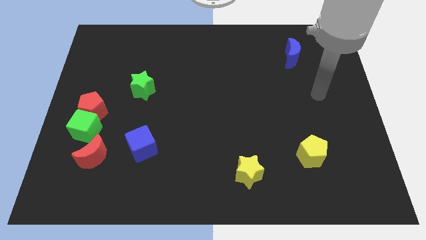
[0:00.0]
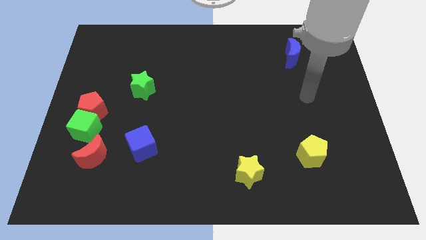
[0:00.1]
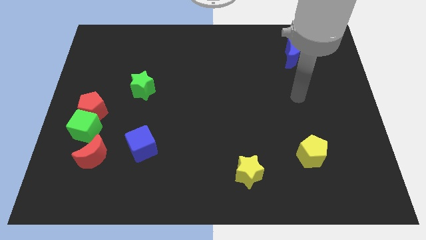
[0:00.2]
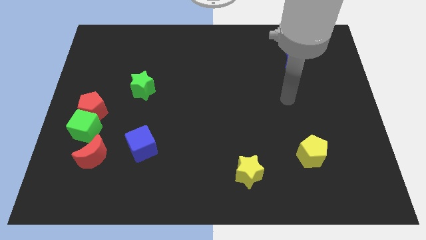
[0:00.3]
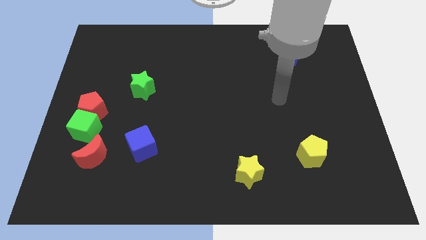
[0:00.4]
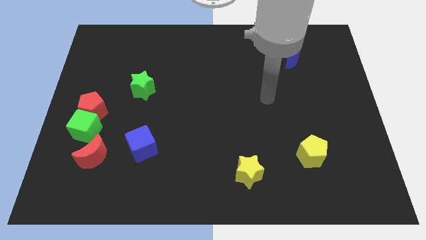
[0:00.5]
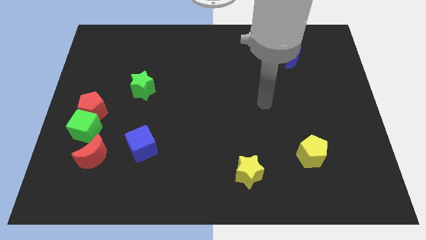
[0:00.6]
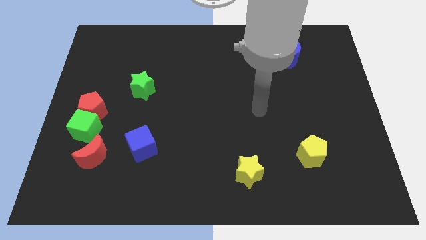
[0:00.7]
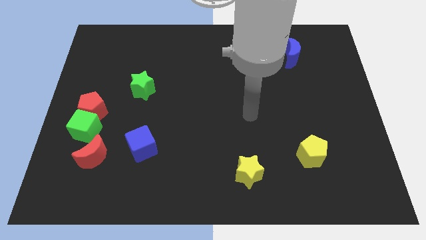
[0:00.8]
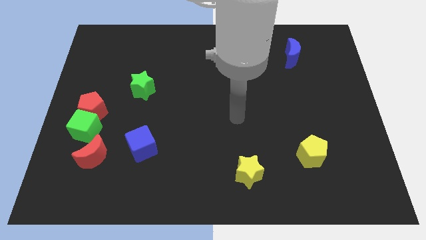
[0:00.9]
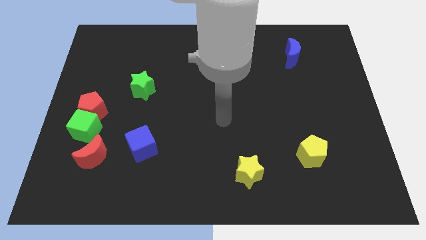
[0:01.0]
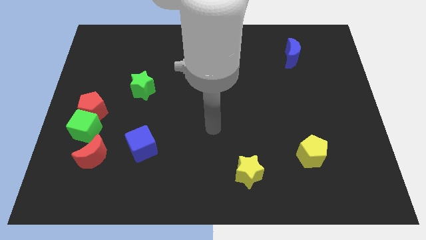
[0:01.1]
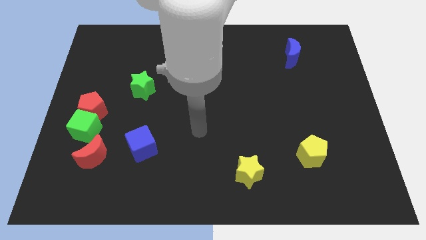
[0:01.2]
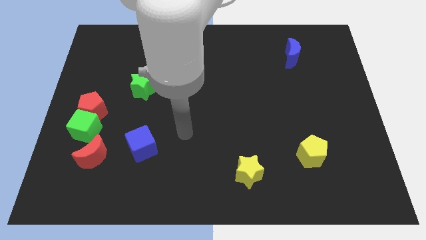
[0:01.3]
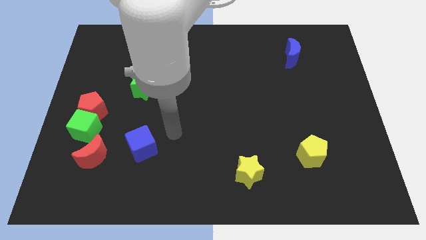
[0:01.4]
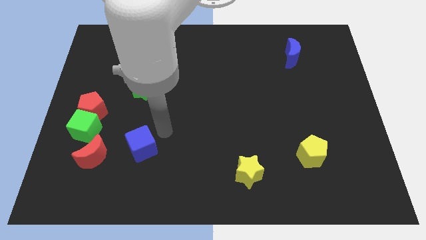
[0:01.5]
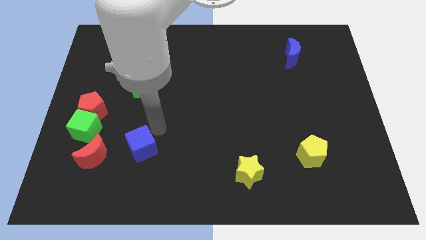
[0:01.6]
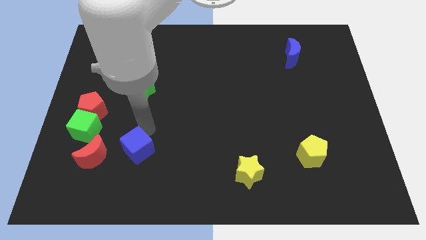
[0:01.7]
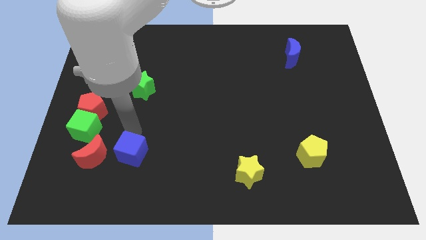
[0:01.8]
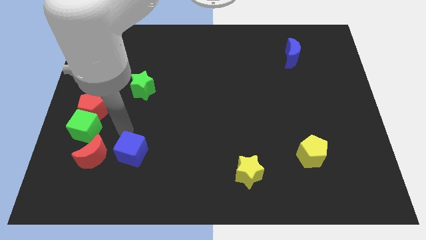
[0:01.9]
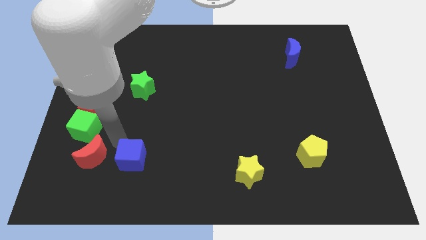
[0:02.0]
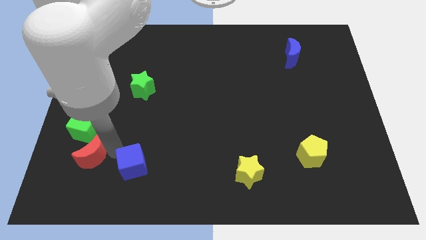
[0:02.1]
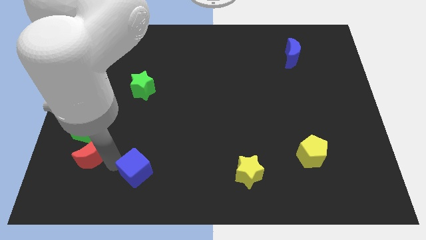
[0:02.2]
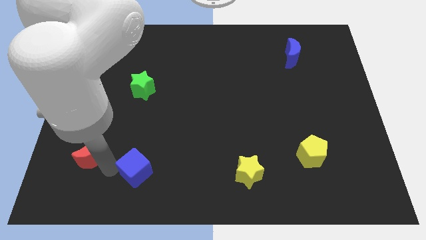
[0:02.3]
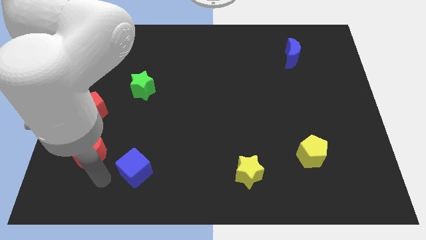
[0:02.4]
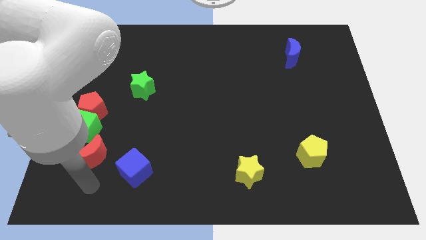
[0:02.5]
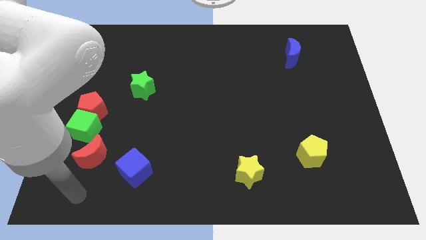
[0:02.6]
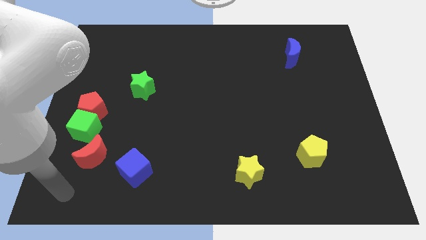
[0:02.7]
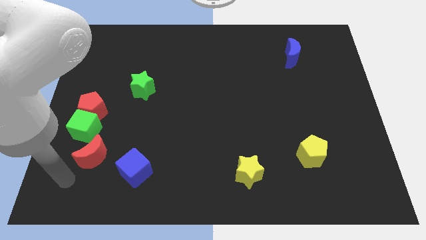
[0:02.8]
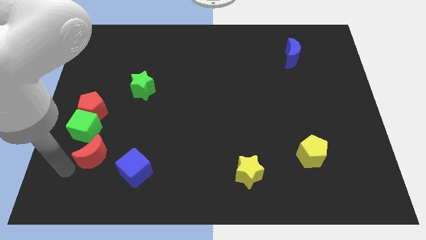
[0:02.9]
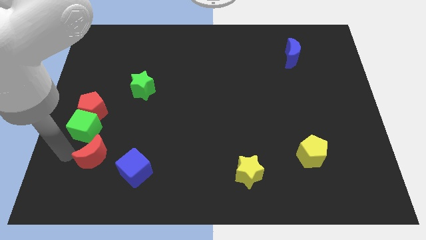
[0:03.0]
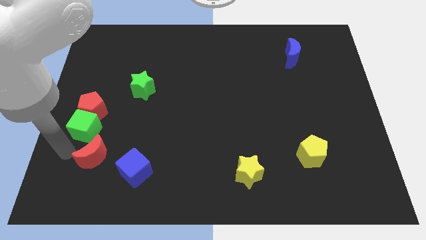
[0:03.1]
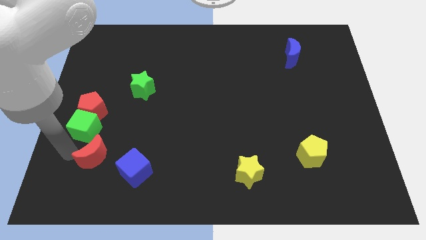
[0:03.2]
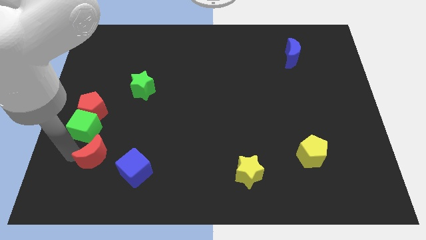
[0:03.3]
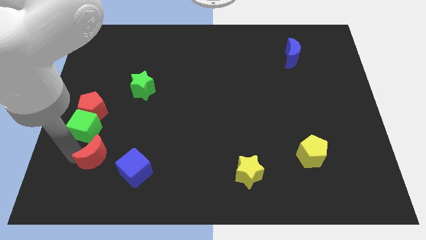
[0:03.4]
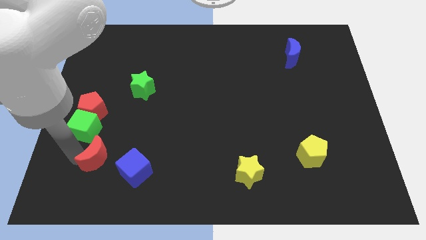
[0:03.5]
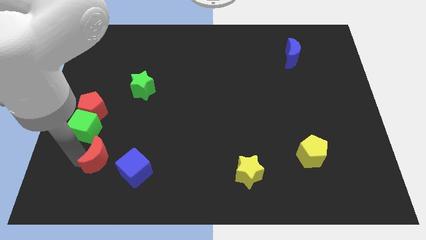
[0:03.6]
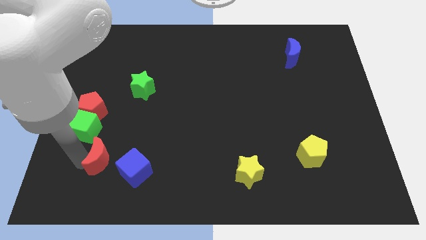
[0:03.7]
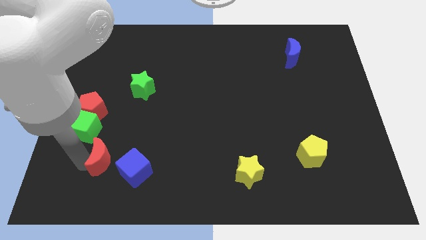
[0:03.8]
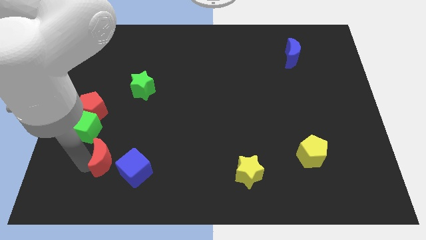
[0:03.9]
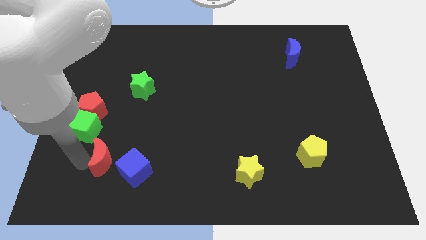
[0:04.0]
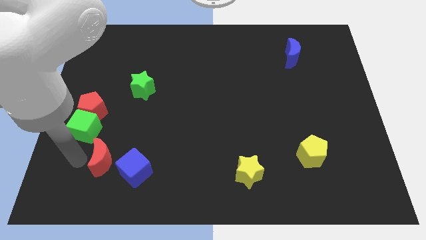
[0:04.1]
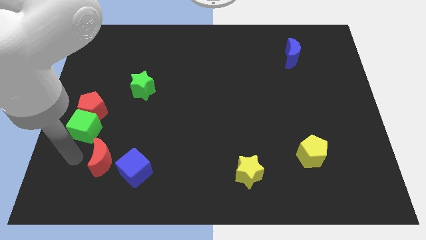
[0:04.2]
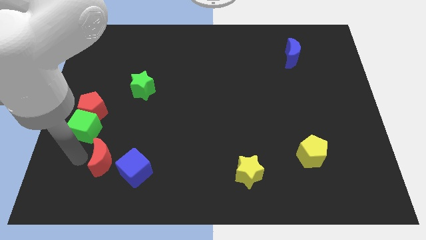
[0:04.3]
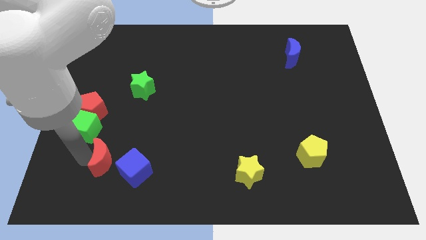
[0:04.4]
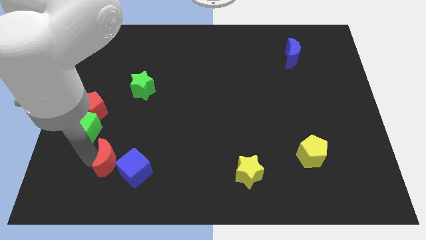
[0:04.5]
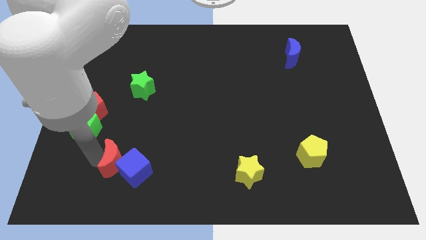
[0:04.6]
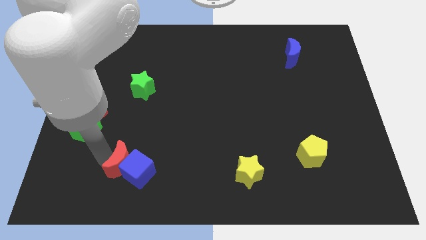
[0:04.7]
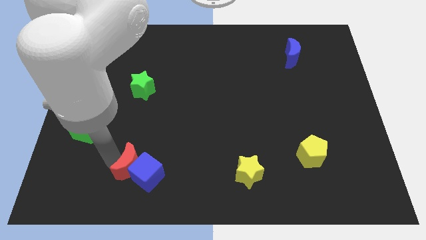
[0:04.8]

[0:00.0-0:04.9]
push the red moon somewhat to the right

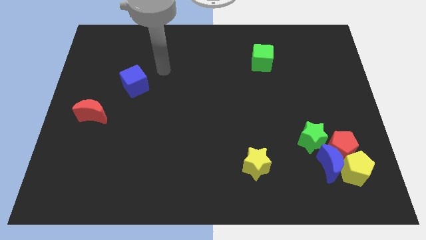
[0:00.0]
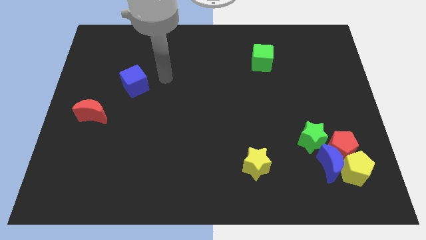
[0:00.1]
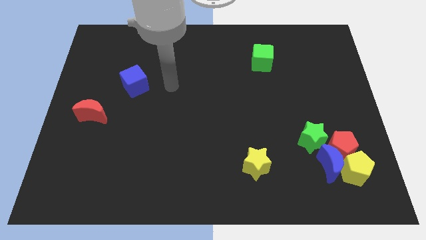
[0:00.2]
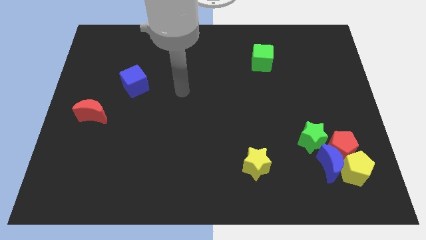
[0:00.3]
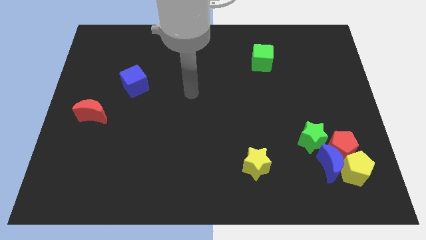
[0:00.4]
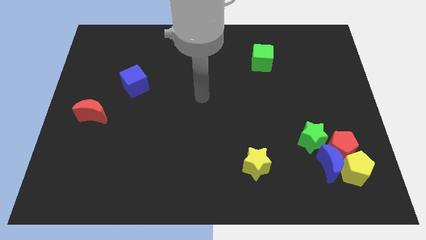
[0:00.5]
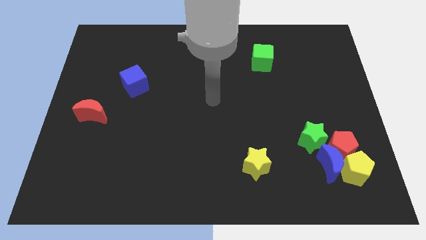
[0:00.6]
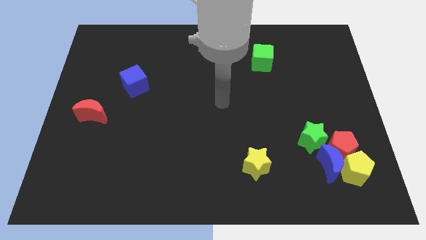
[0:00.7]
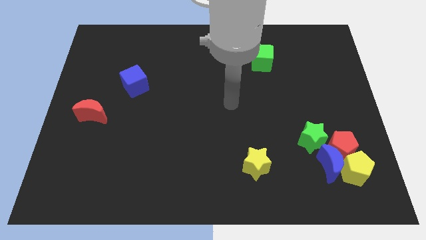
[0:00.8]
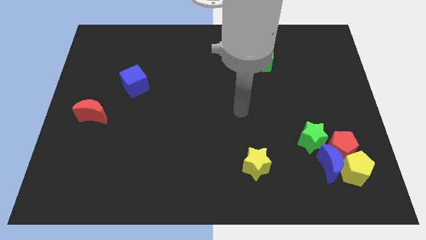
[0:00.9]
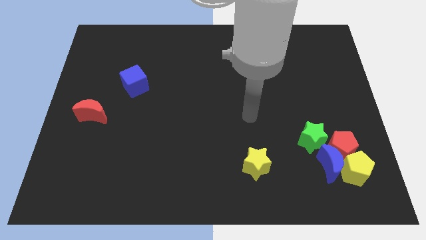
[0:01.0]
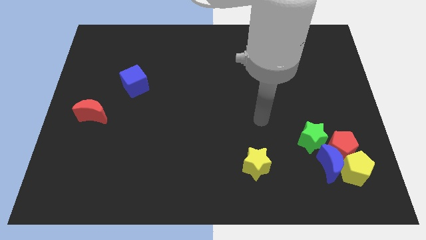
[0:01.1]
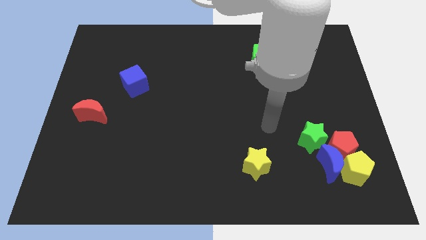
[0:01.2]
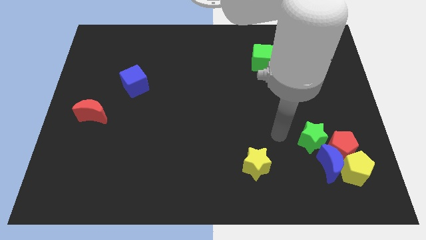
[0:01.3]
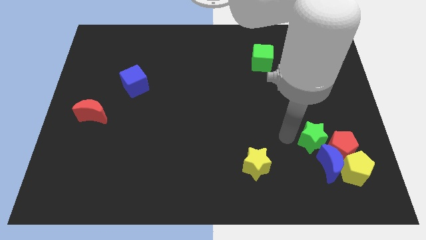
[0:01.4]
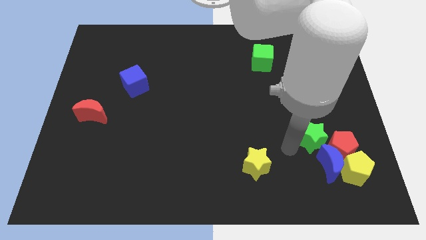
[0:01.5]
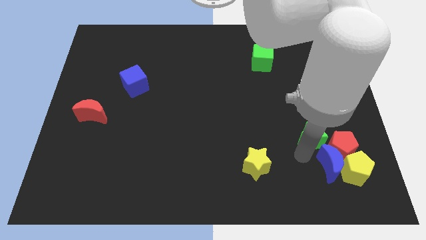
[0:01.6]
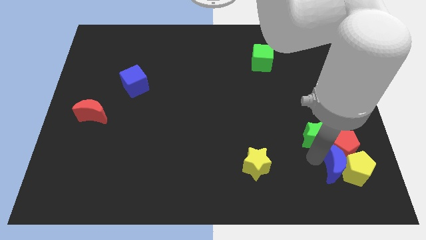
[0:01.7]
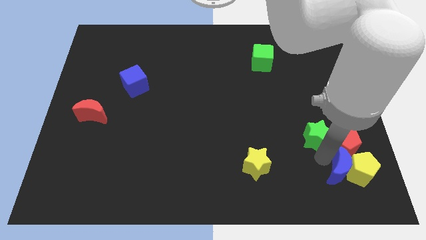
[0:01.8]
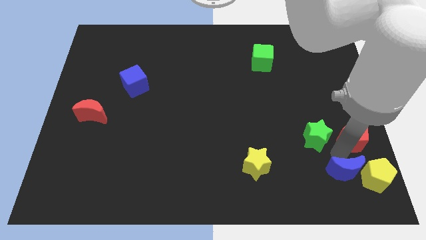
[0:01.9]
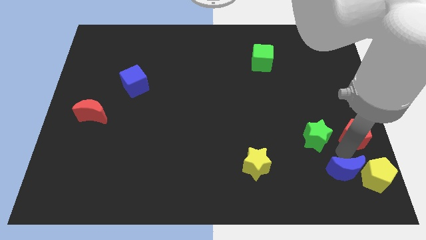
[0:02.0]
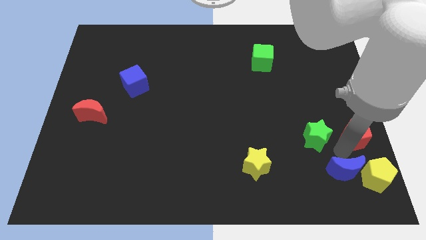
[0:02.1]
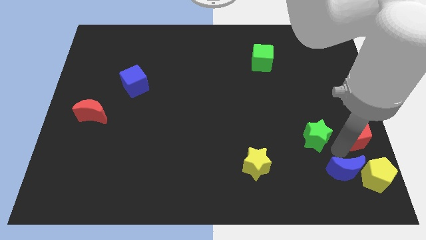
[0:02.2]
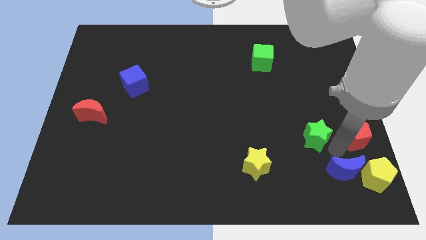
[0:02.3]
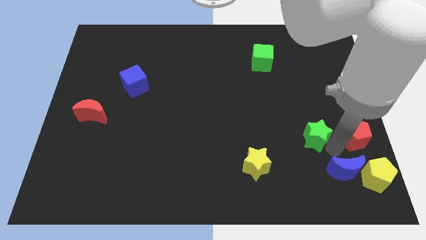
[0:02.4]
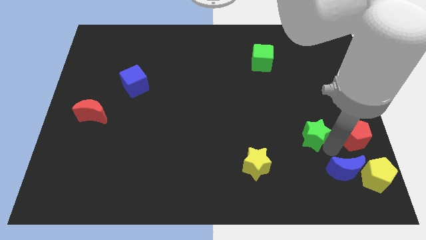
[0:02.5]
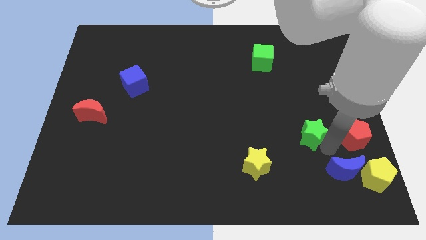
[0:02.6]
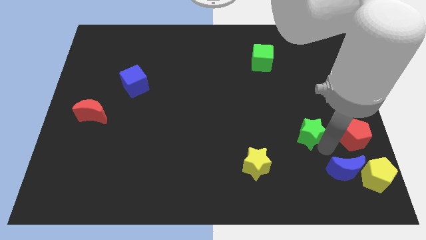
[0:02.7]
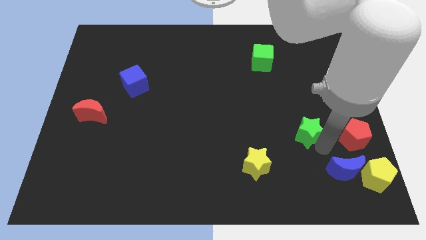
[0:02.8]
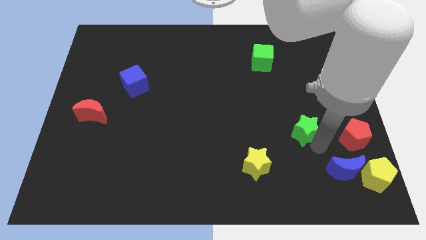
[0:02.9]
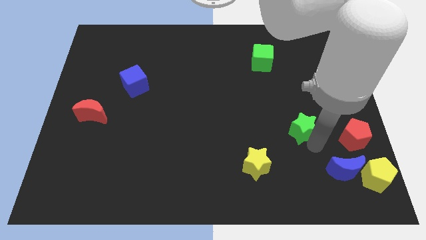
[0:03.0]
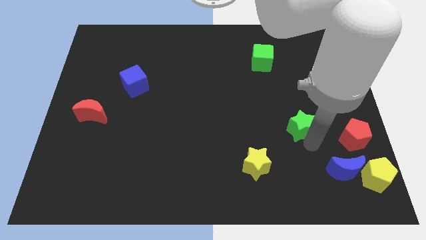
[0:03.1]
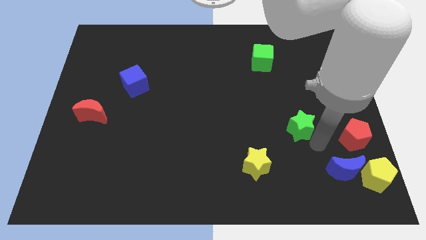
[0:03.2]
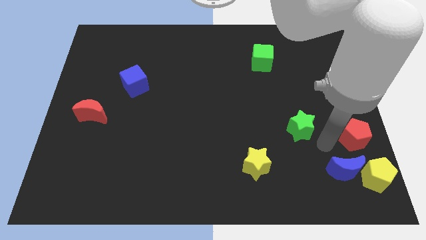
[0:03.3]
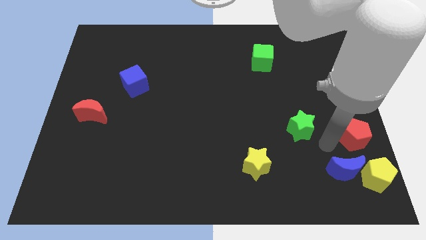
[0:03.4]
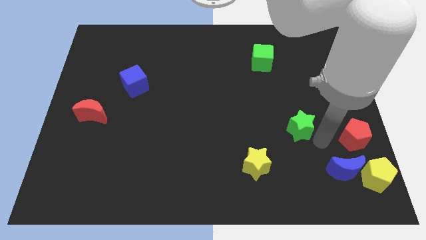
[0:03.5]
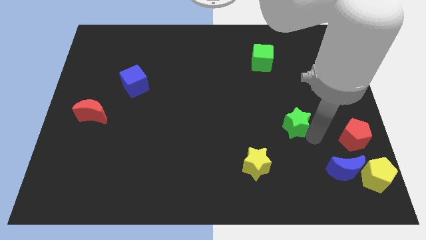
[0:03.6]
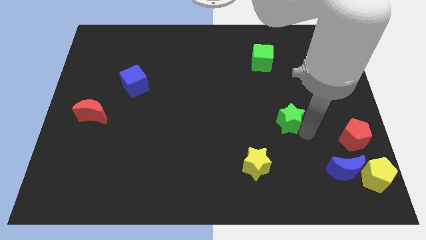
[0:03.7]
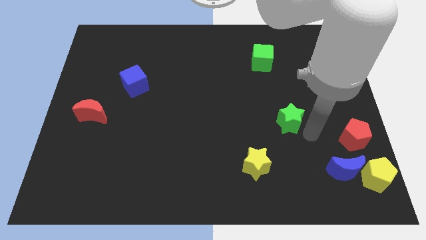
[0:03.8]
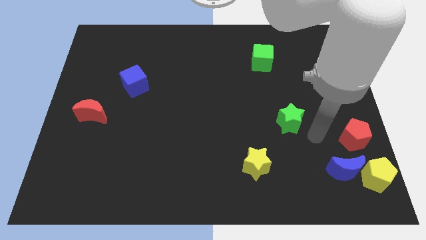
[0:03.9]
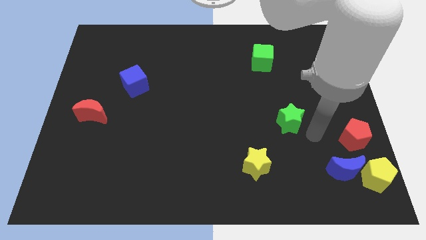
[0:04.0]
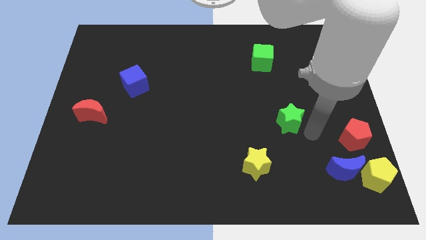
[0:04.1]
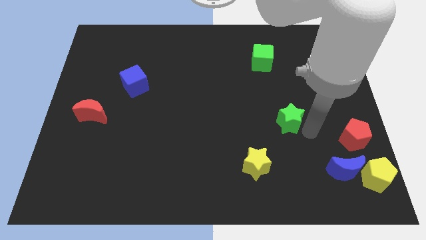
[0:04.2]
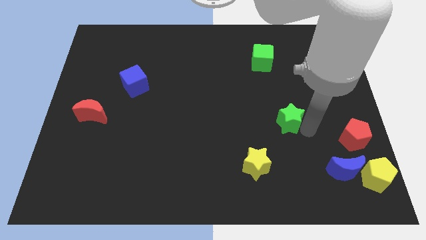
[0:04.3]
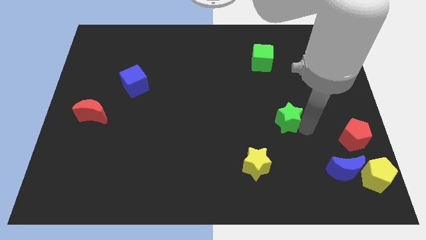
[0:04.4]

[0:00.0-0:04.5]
push the green star somewhat diagonally up and left
